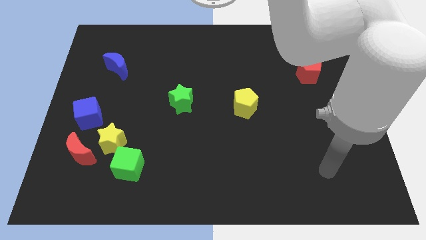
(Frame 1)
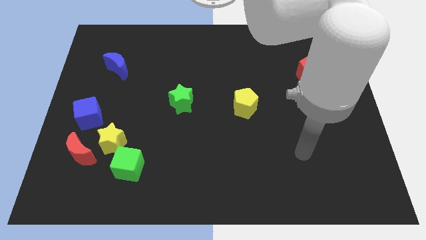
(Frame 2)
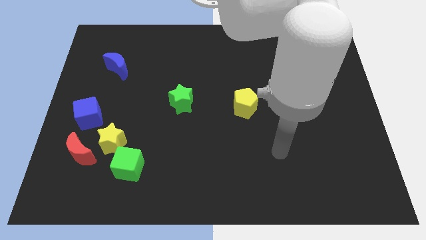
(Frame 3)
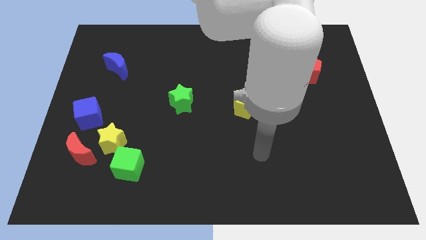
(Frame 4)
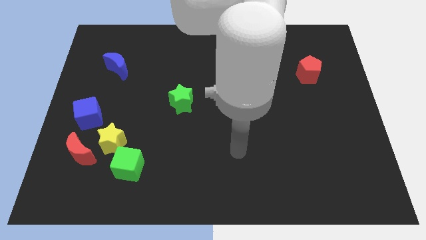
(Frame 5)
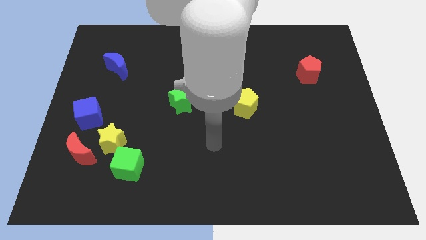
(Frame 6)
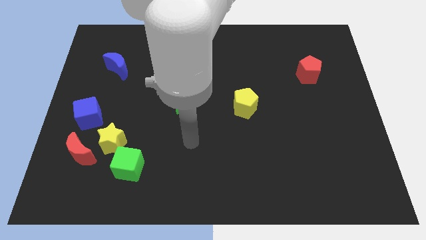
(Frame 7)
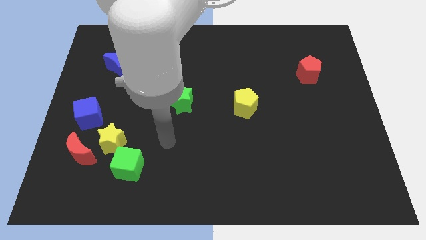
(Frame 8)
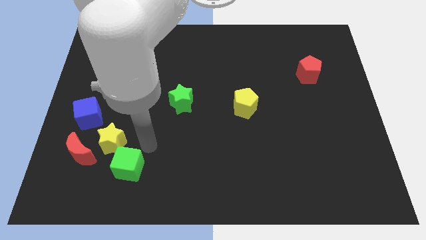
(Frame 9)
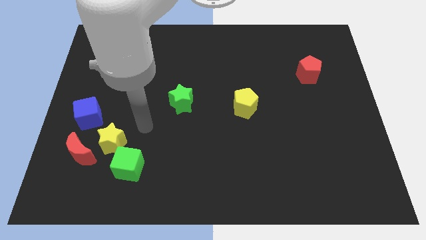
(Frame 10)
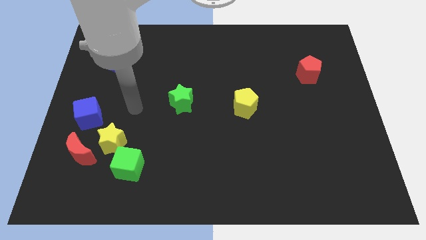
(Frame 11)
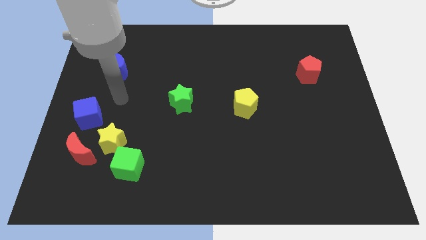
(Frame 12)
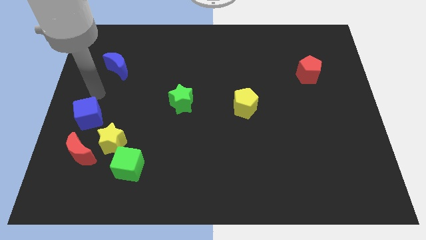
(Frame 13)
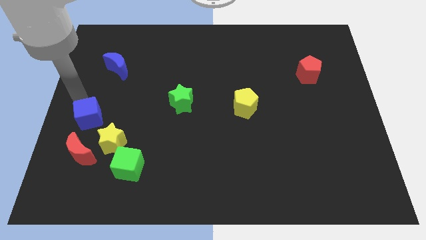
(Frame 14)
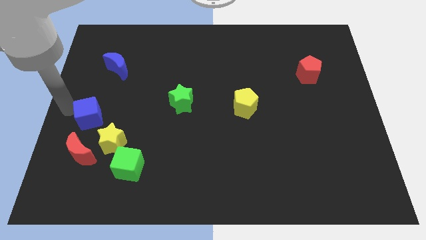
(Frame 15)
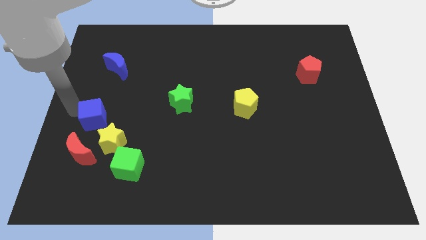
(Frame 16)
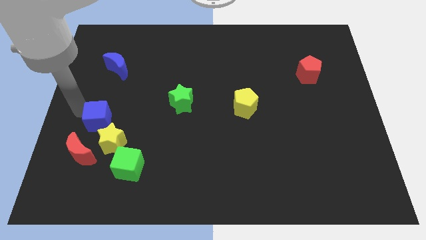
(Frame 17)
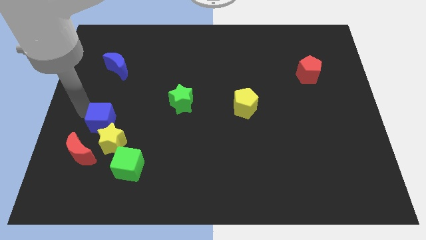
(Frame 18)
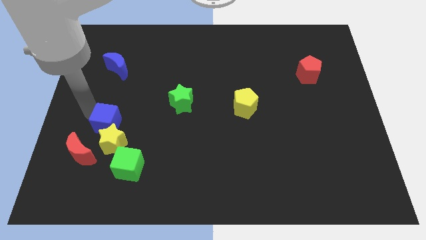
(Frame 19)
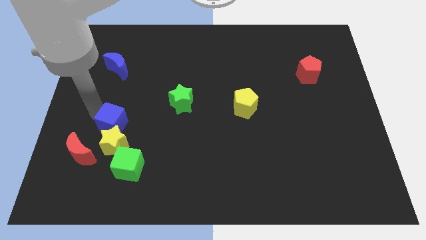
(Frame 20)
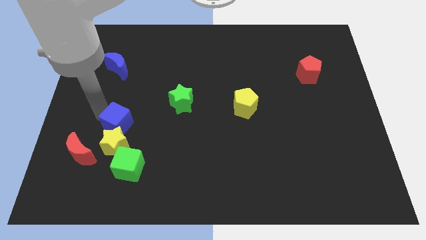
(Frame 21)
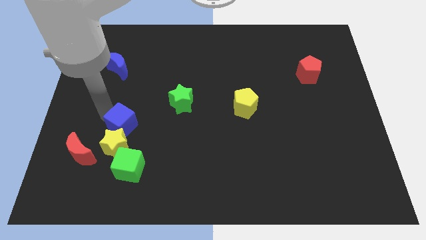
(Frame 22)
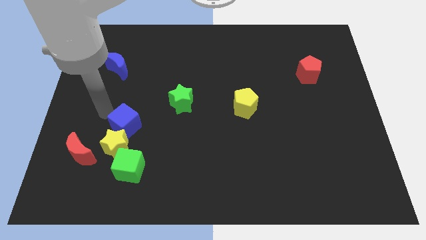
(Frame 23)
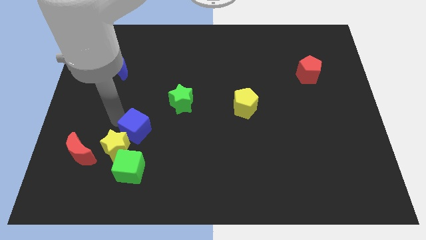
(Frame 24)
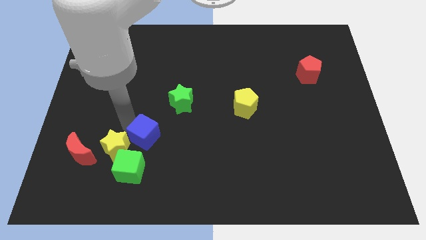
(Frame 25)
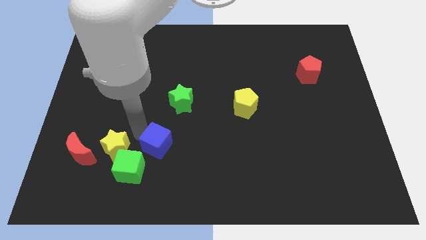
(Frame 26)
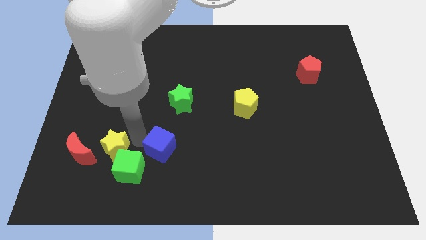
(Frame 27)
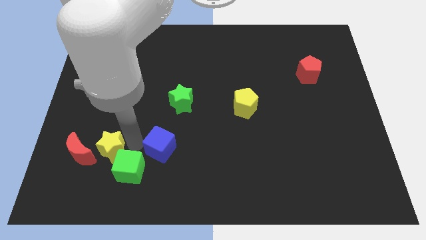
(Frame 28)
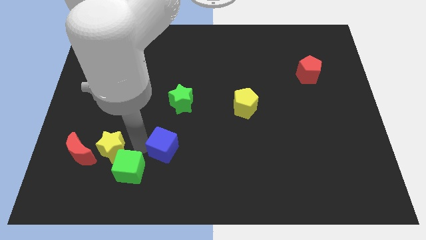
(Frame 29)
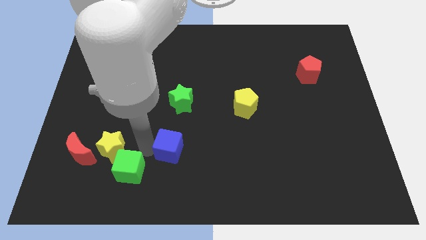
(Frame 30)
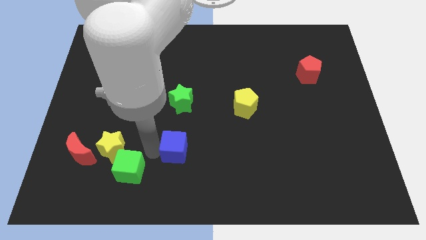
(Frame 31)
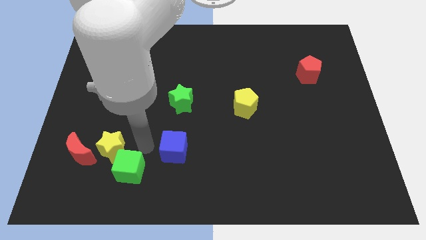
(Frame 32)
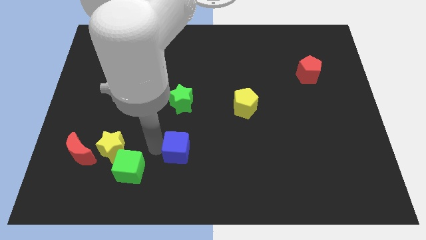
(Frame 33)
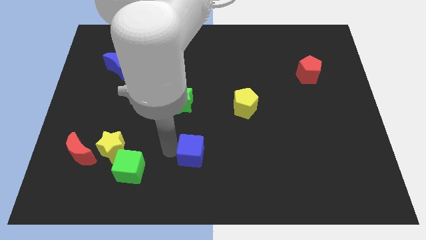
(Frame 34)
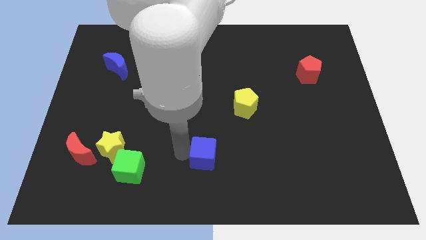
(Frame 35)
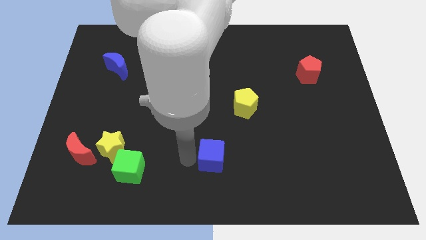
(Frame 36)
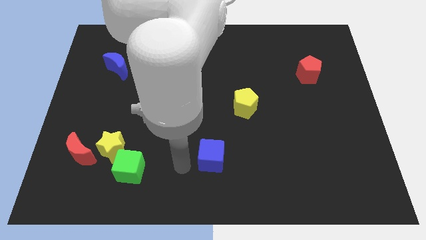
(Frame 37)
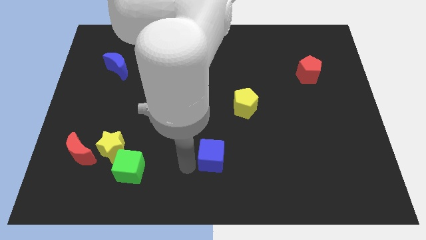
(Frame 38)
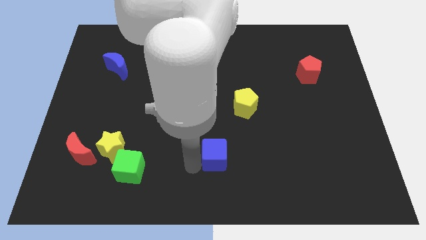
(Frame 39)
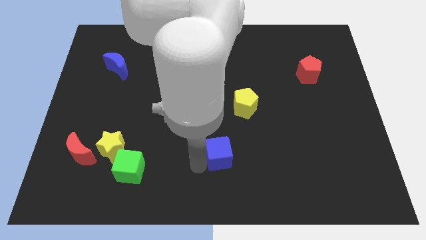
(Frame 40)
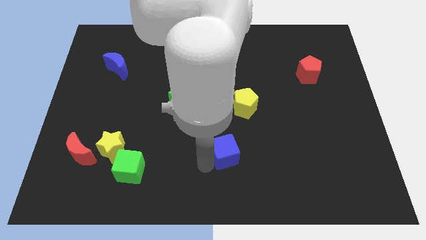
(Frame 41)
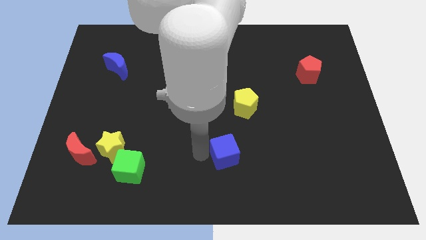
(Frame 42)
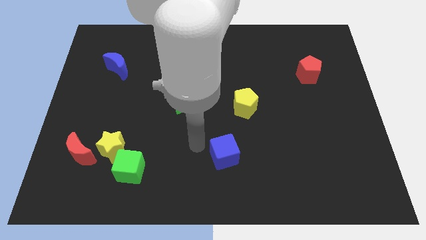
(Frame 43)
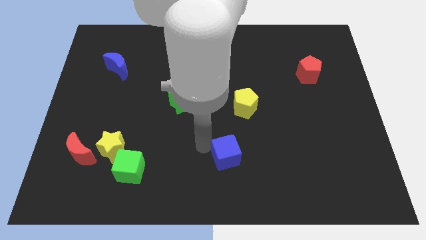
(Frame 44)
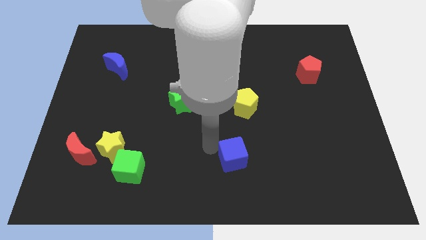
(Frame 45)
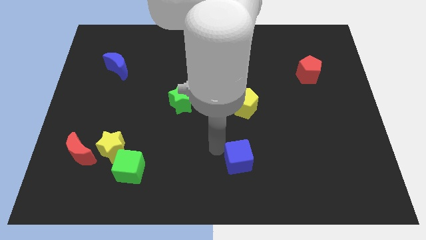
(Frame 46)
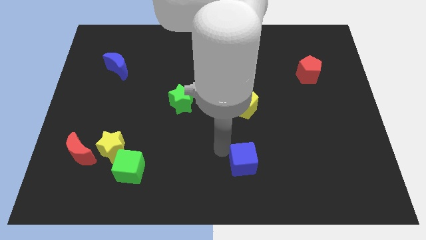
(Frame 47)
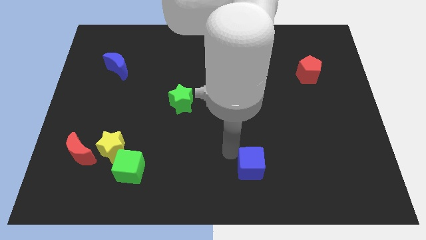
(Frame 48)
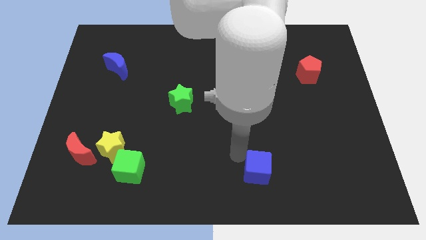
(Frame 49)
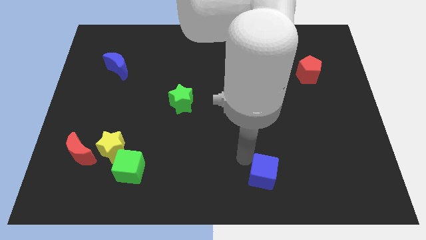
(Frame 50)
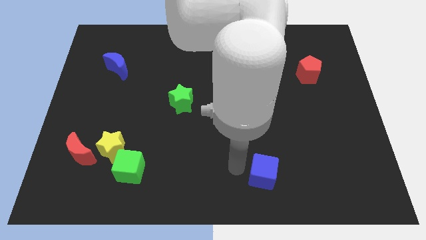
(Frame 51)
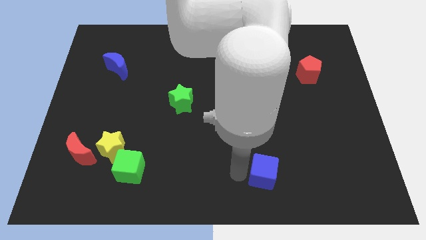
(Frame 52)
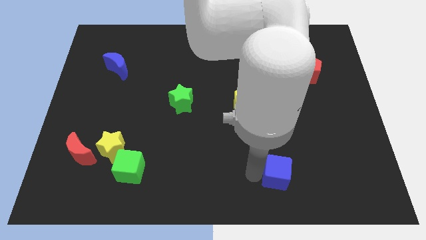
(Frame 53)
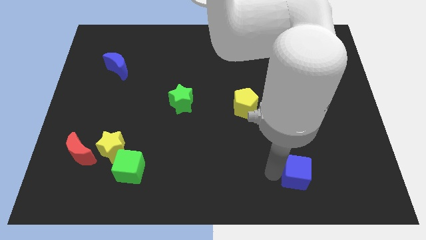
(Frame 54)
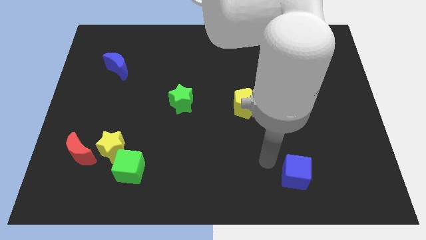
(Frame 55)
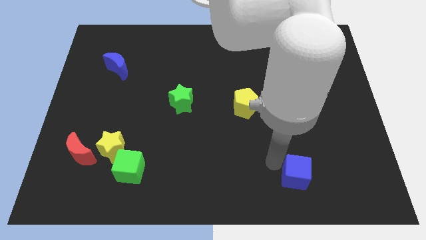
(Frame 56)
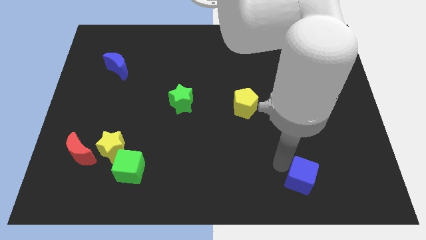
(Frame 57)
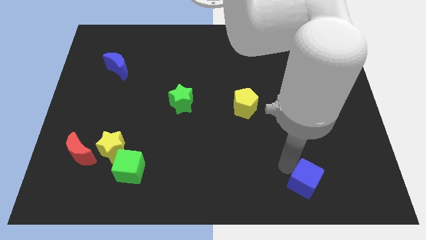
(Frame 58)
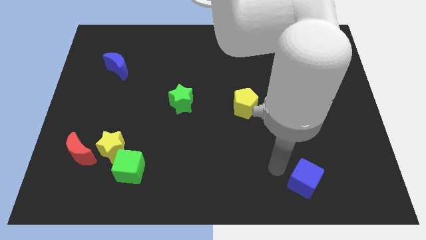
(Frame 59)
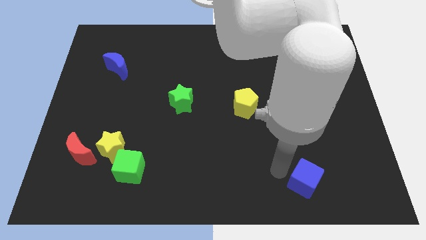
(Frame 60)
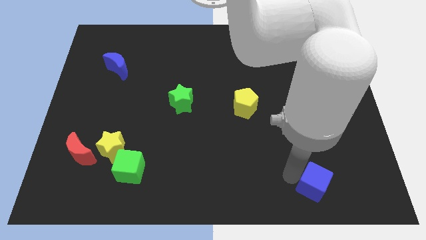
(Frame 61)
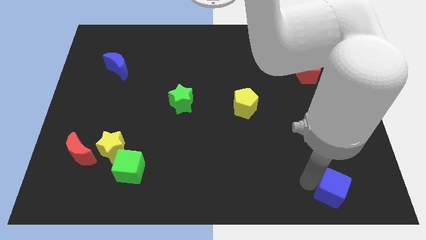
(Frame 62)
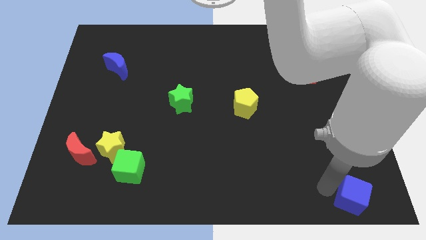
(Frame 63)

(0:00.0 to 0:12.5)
push the blue cube to the bottom right

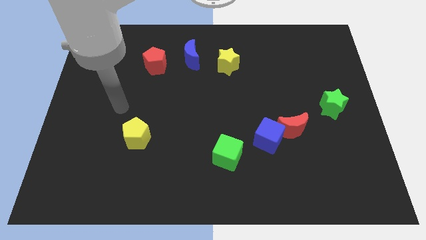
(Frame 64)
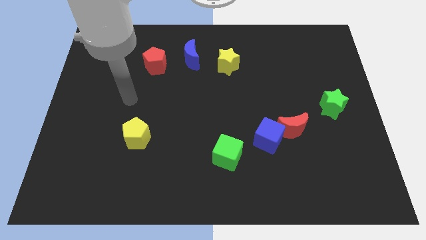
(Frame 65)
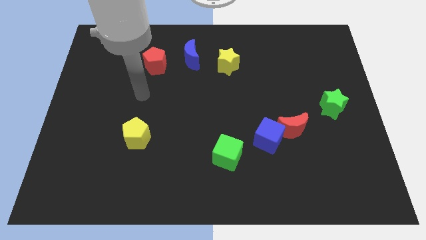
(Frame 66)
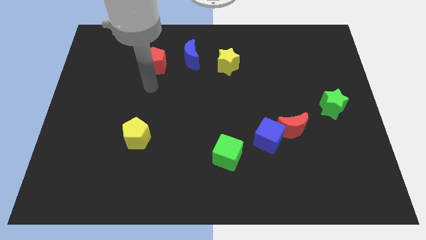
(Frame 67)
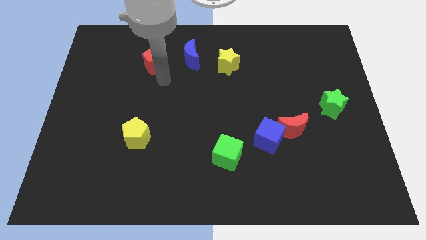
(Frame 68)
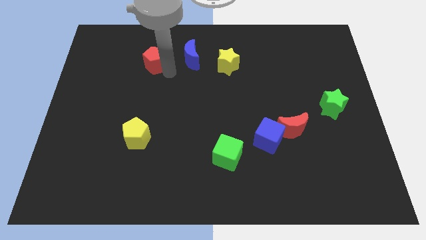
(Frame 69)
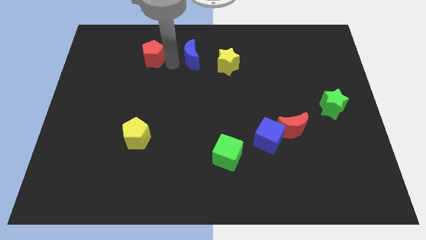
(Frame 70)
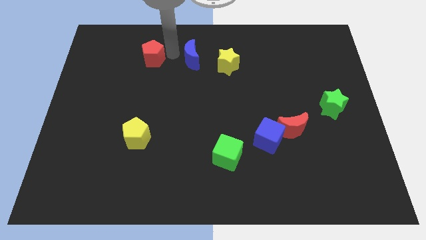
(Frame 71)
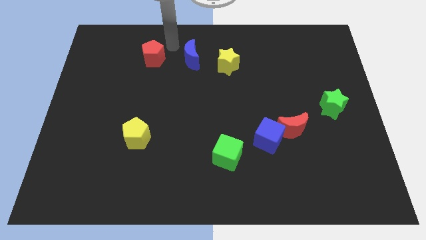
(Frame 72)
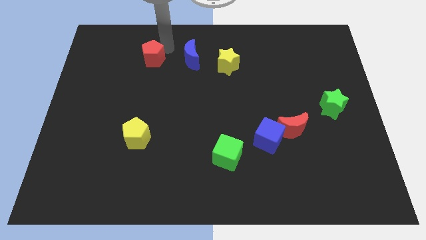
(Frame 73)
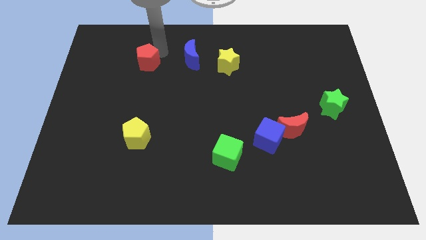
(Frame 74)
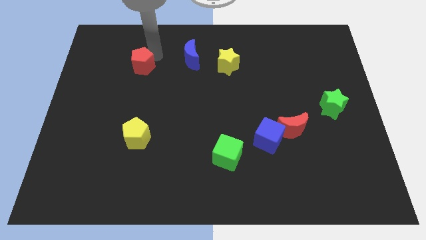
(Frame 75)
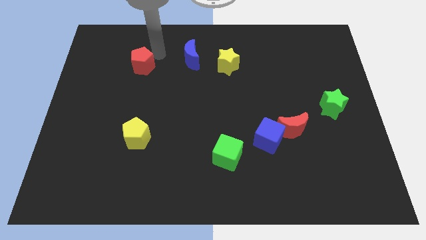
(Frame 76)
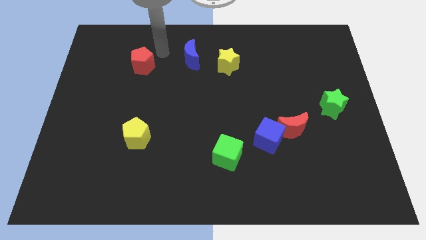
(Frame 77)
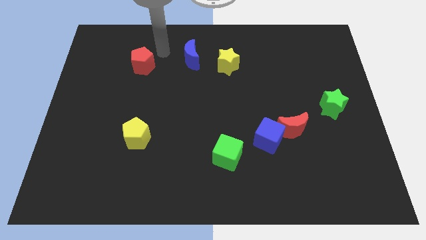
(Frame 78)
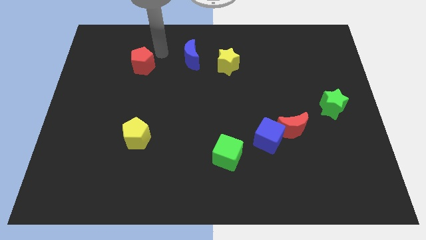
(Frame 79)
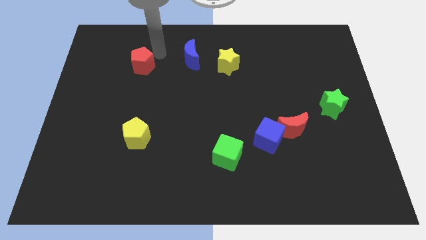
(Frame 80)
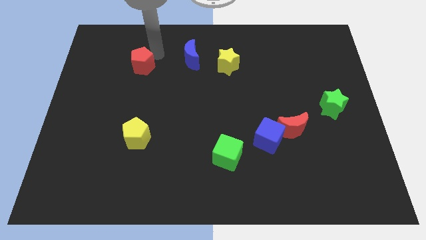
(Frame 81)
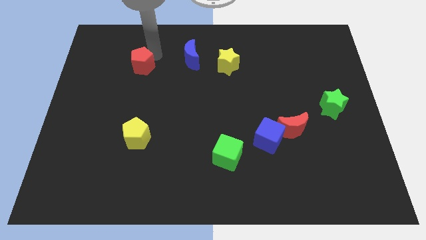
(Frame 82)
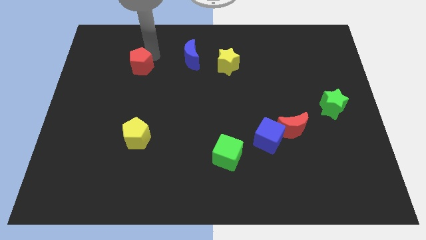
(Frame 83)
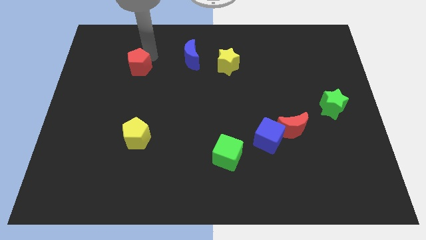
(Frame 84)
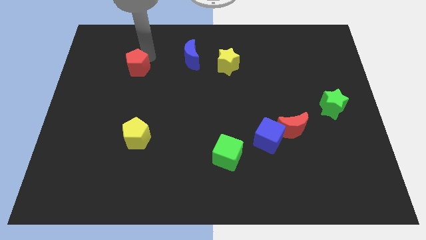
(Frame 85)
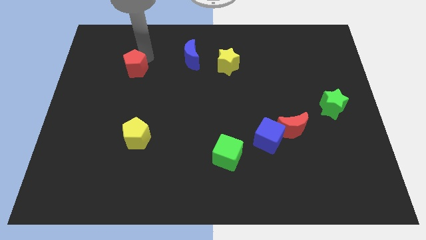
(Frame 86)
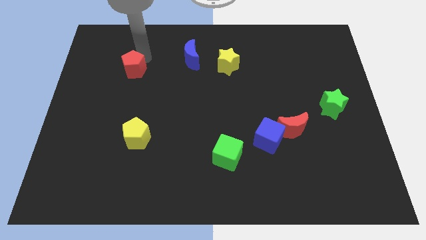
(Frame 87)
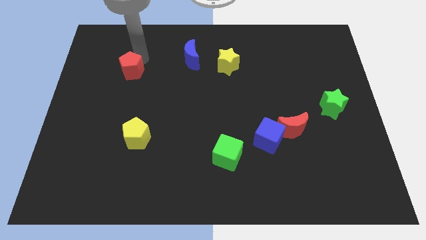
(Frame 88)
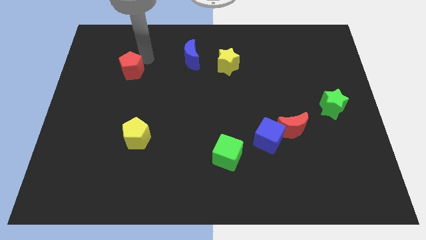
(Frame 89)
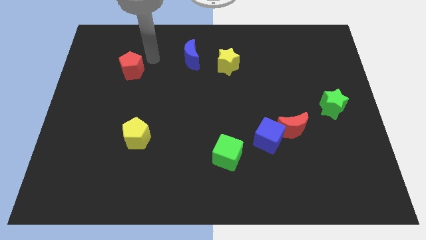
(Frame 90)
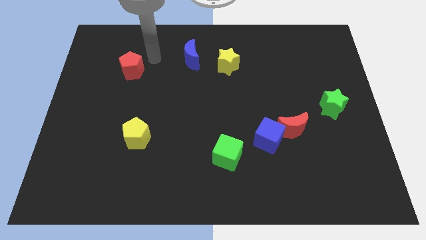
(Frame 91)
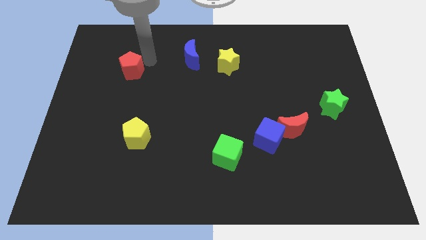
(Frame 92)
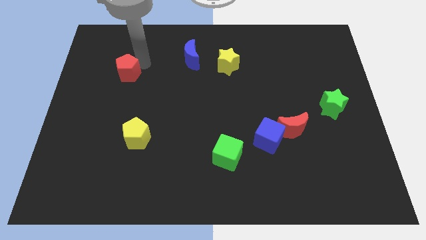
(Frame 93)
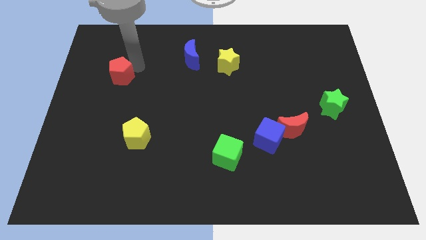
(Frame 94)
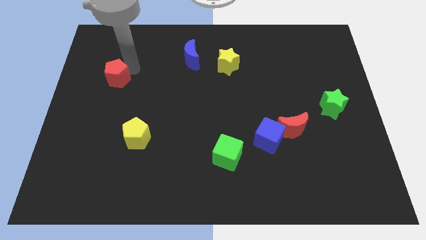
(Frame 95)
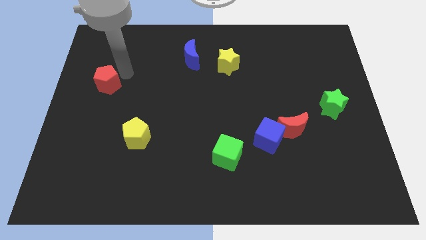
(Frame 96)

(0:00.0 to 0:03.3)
move the red pentagon to the center left
